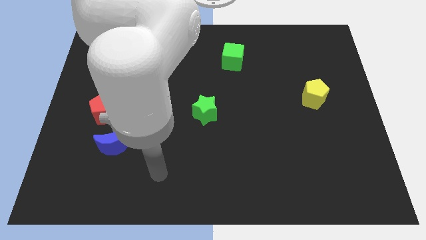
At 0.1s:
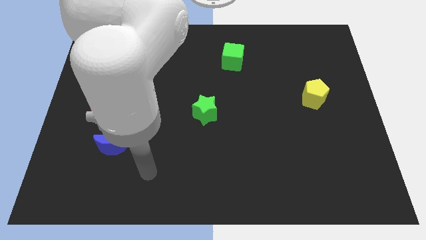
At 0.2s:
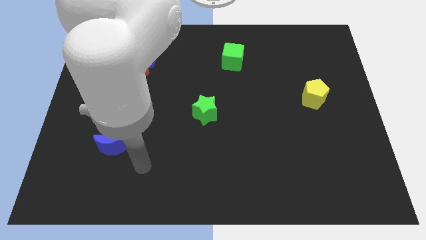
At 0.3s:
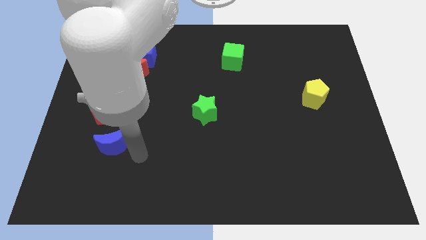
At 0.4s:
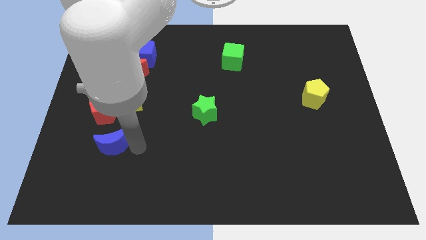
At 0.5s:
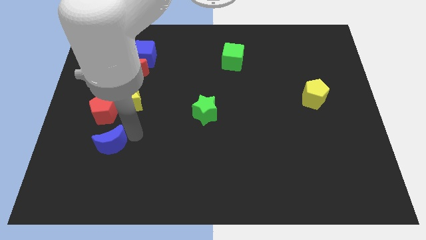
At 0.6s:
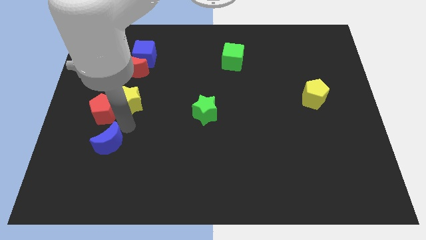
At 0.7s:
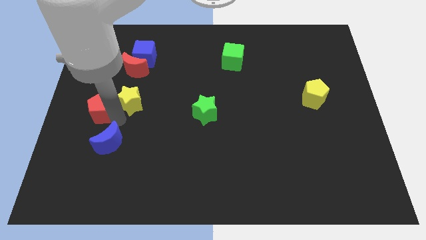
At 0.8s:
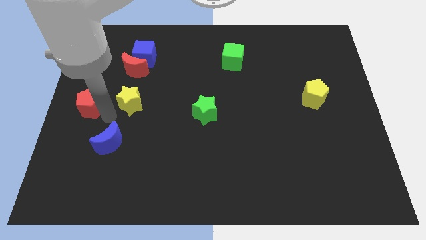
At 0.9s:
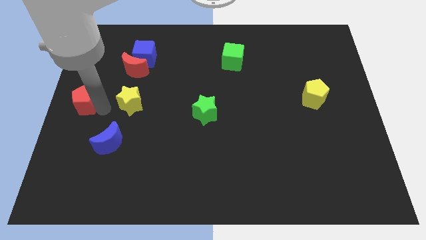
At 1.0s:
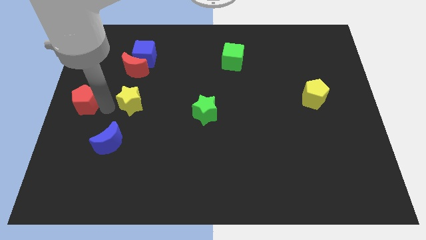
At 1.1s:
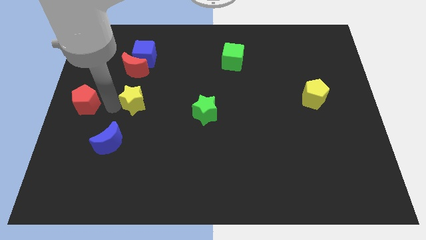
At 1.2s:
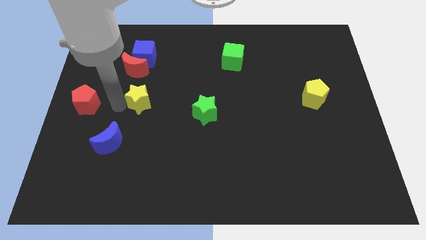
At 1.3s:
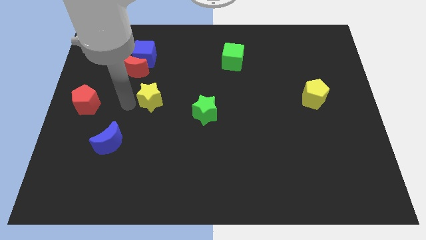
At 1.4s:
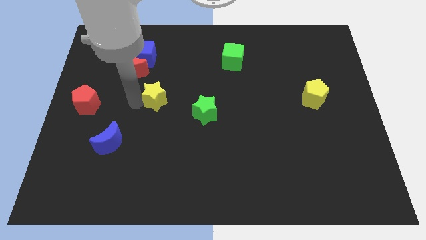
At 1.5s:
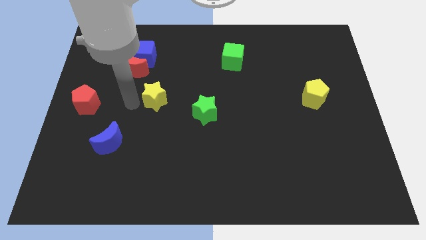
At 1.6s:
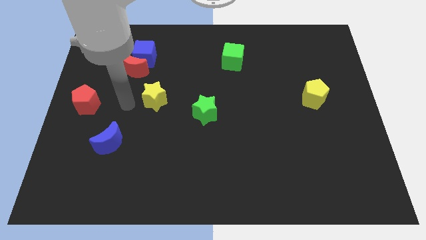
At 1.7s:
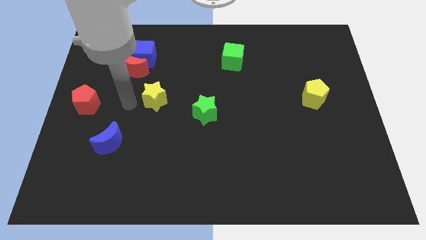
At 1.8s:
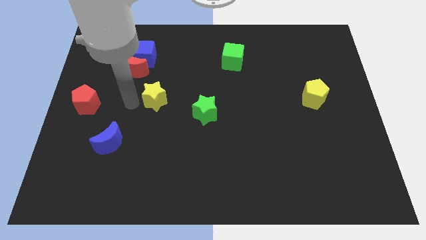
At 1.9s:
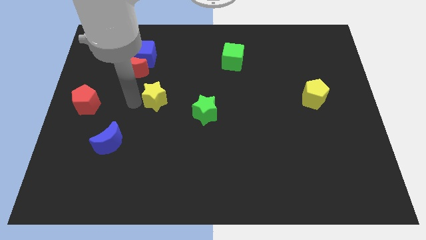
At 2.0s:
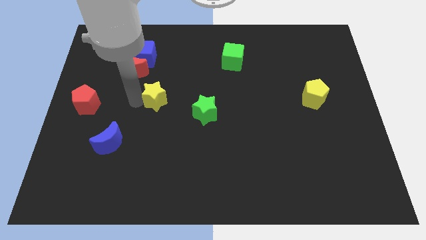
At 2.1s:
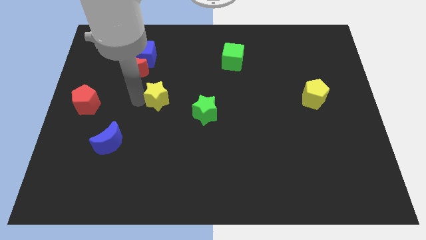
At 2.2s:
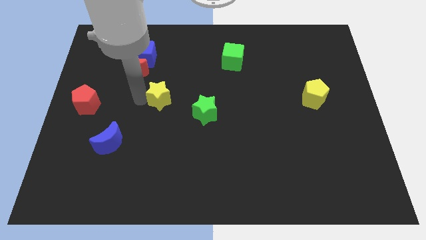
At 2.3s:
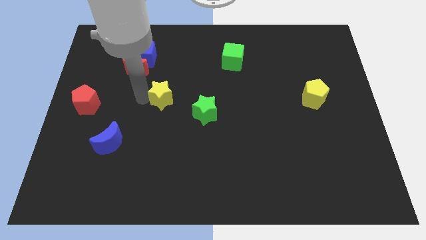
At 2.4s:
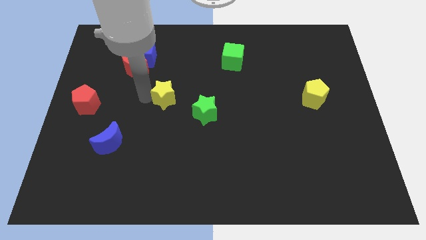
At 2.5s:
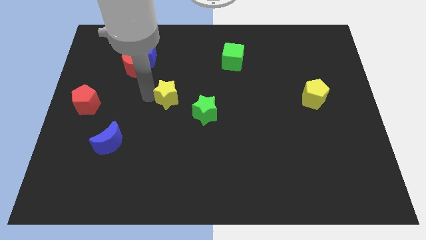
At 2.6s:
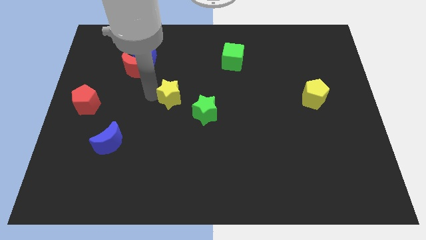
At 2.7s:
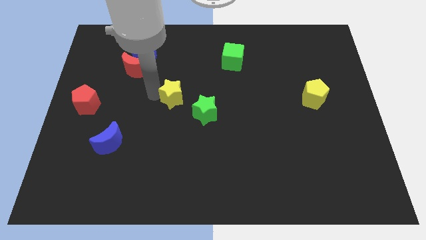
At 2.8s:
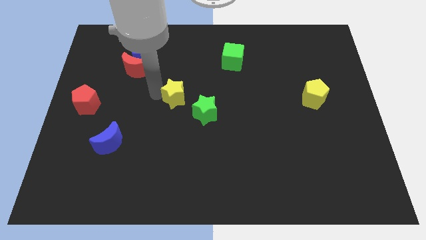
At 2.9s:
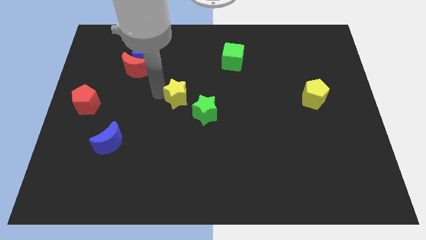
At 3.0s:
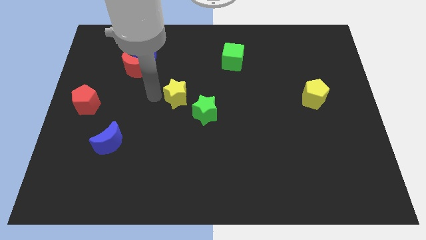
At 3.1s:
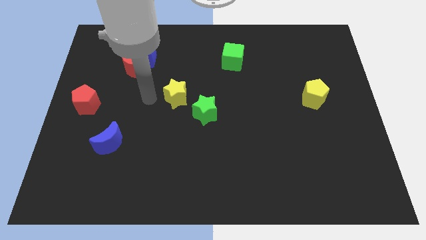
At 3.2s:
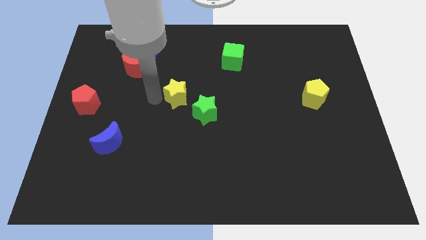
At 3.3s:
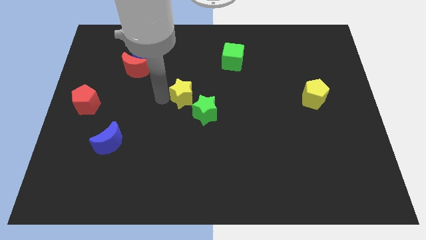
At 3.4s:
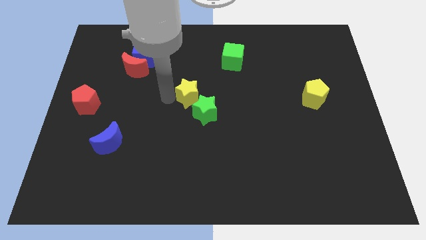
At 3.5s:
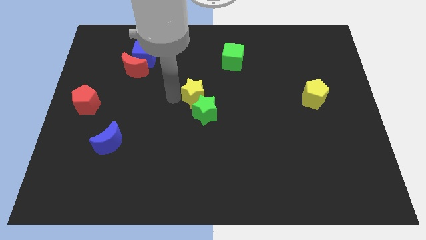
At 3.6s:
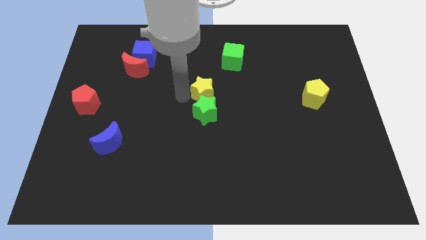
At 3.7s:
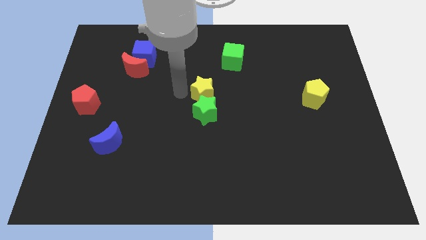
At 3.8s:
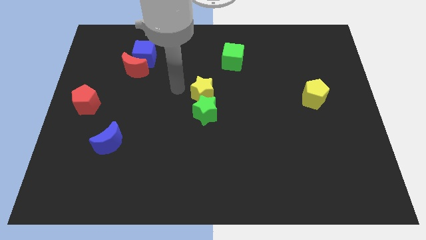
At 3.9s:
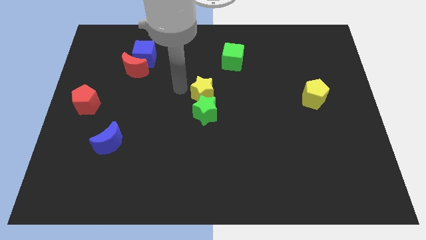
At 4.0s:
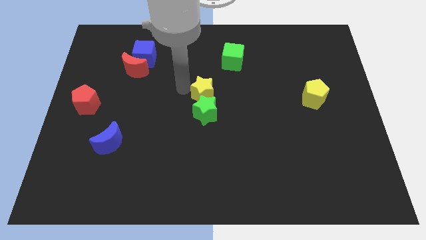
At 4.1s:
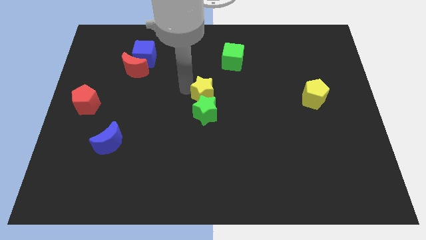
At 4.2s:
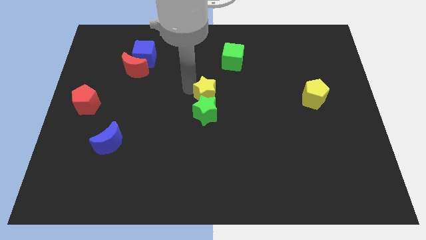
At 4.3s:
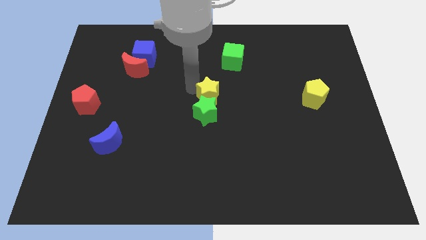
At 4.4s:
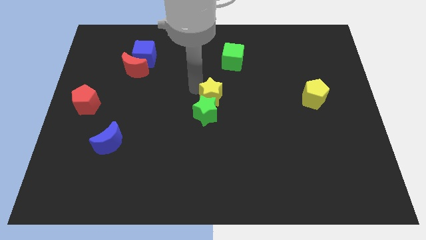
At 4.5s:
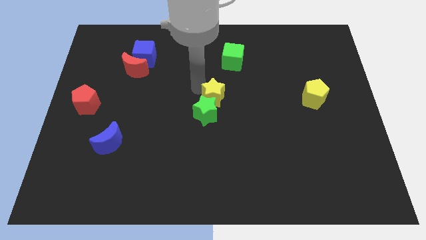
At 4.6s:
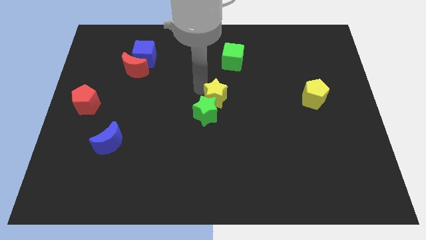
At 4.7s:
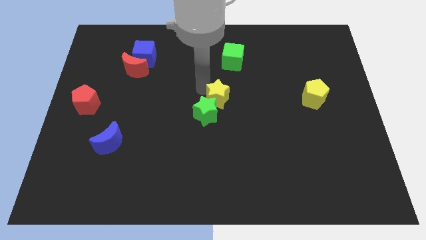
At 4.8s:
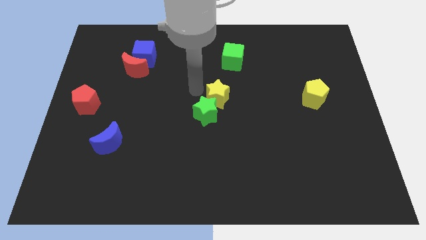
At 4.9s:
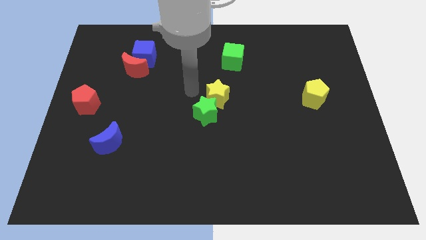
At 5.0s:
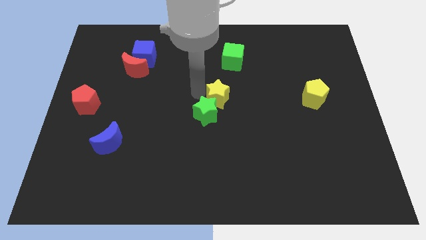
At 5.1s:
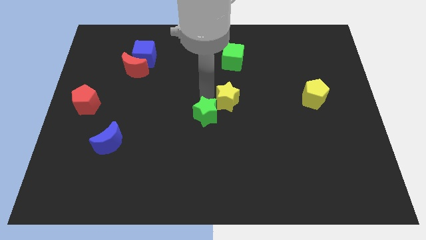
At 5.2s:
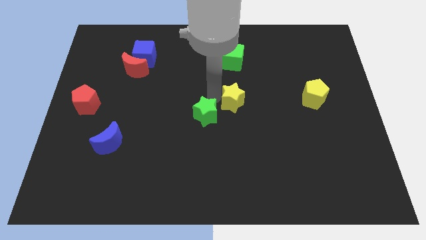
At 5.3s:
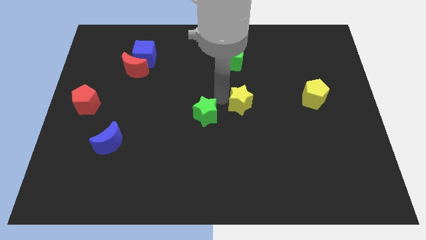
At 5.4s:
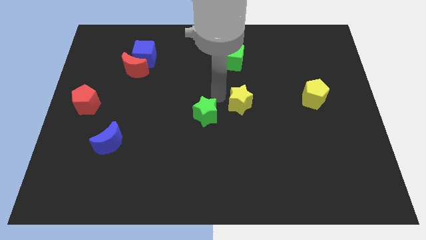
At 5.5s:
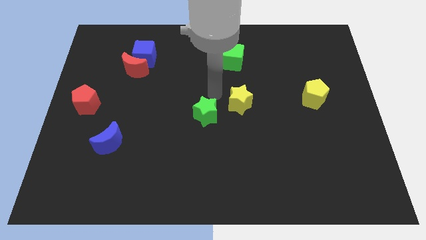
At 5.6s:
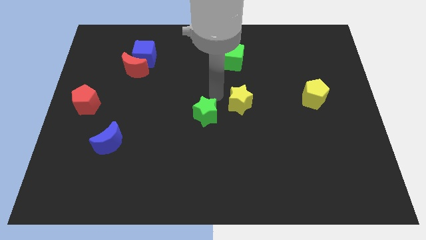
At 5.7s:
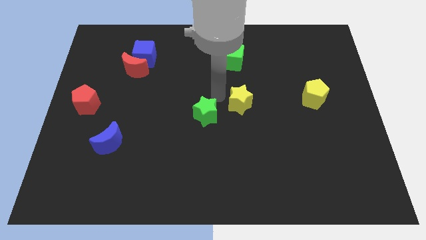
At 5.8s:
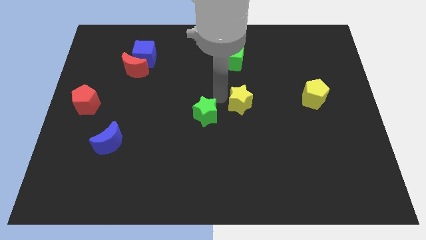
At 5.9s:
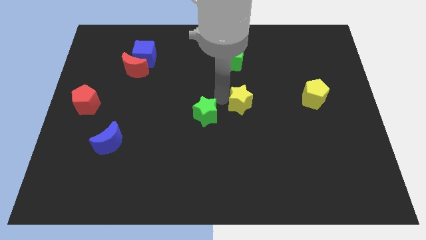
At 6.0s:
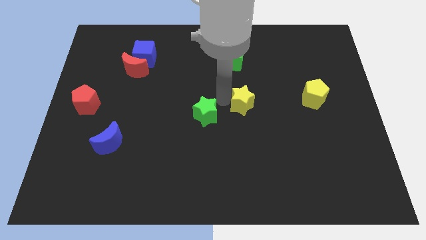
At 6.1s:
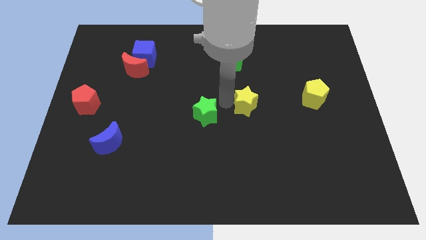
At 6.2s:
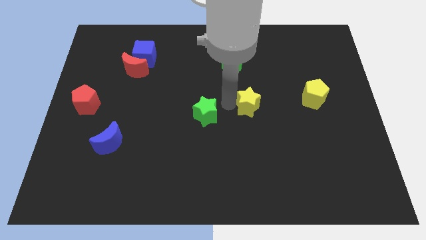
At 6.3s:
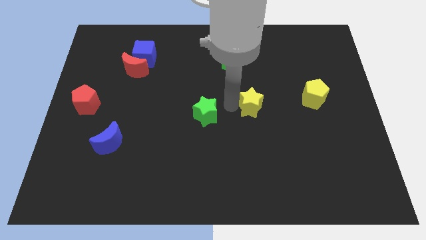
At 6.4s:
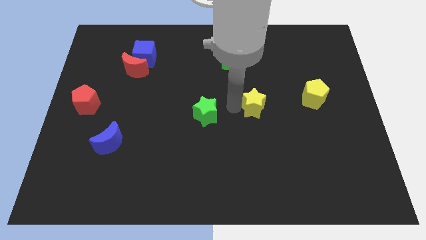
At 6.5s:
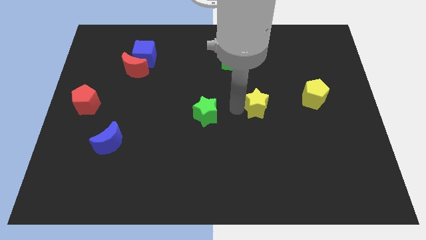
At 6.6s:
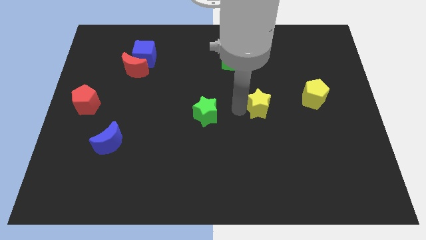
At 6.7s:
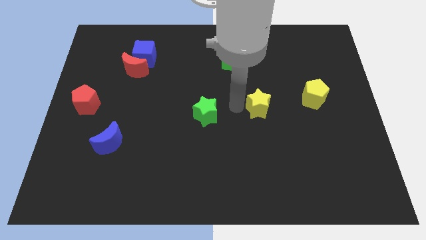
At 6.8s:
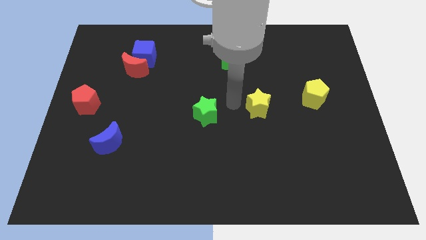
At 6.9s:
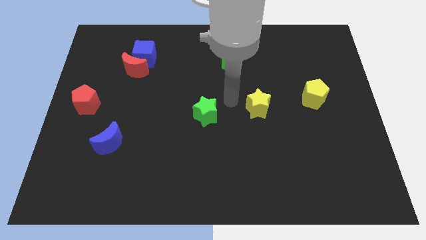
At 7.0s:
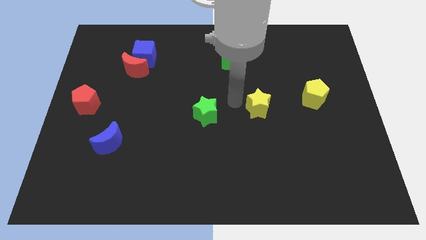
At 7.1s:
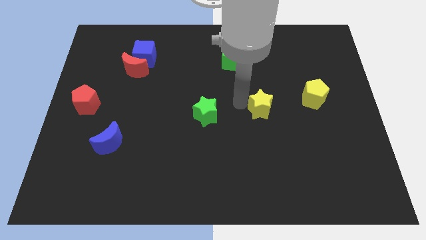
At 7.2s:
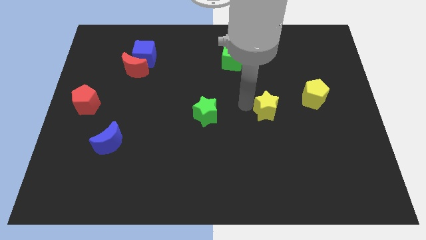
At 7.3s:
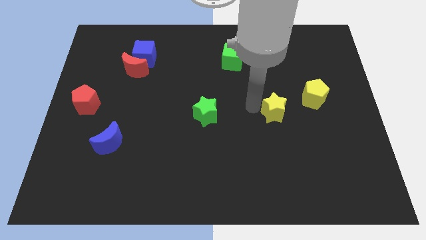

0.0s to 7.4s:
push the yellow star diagonally down and to the left of the yellow pentagon
